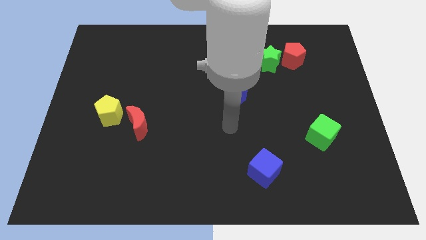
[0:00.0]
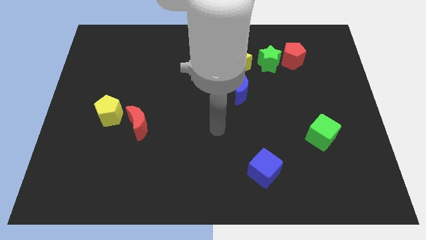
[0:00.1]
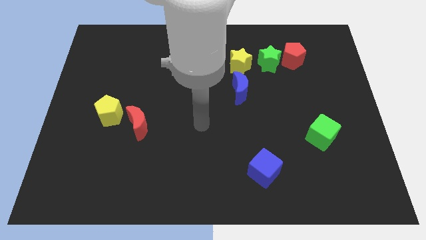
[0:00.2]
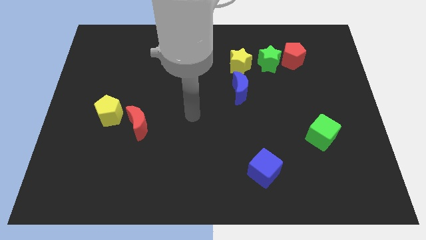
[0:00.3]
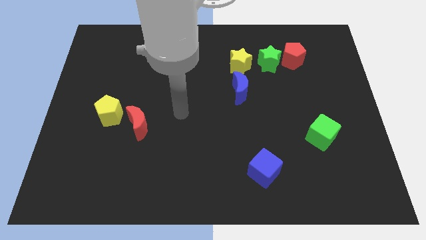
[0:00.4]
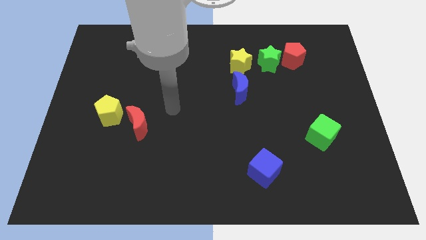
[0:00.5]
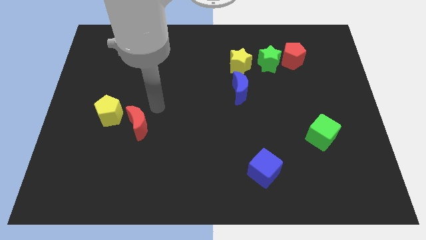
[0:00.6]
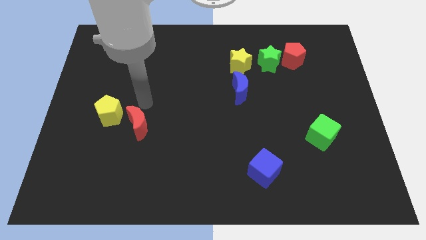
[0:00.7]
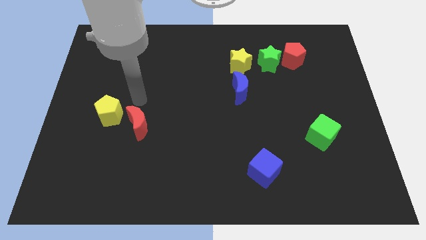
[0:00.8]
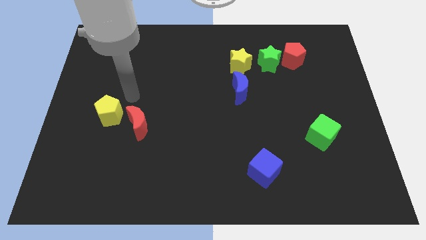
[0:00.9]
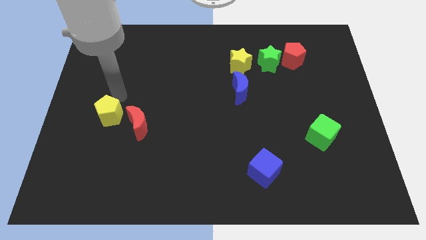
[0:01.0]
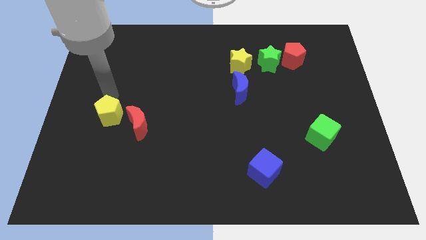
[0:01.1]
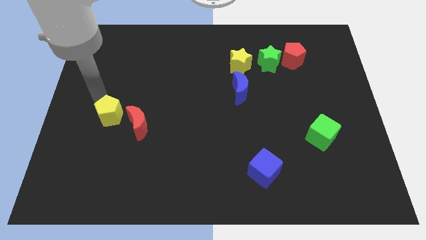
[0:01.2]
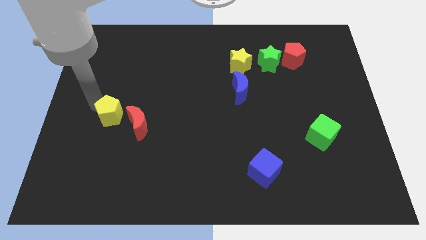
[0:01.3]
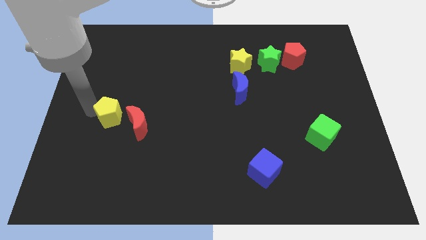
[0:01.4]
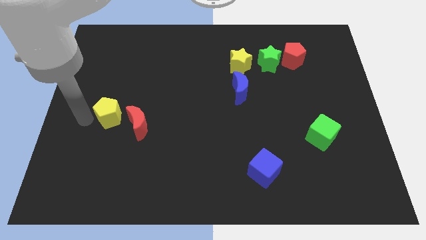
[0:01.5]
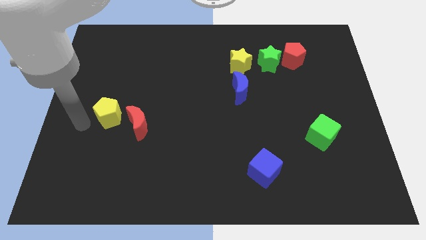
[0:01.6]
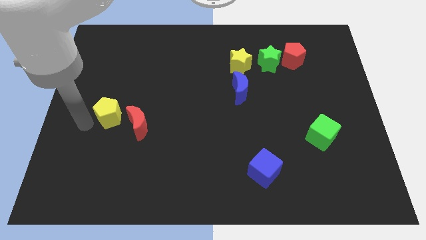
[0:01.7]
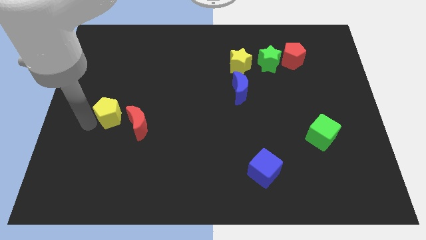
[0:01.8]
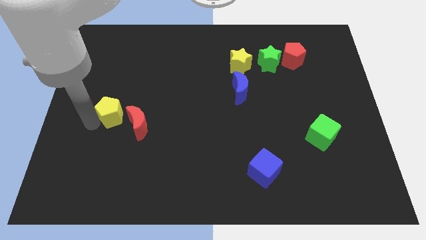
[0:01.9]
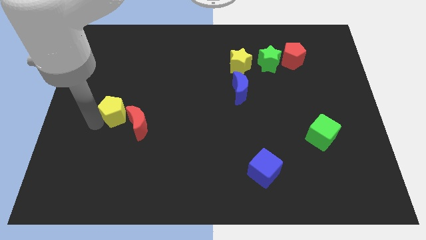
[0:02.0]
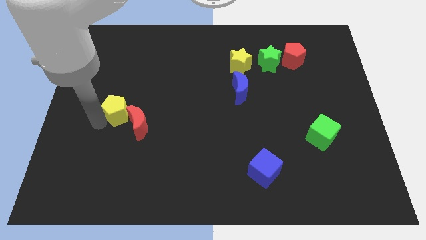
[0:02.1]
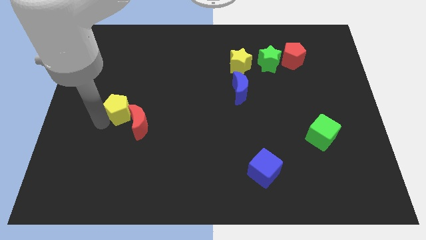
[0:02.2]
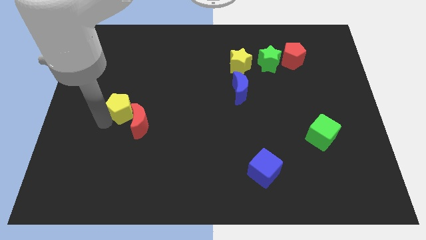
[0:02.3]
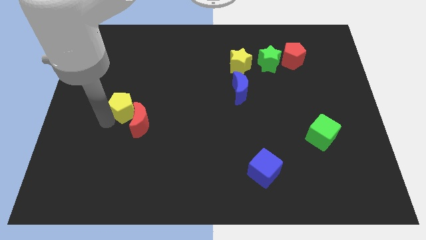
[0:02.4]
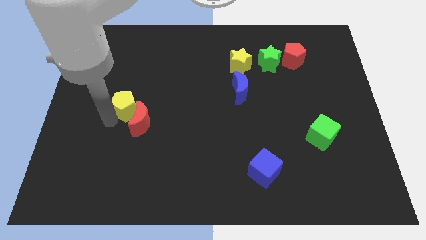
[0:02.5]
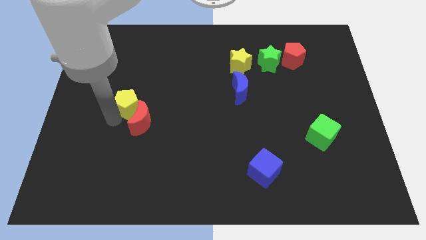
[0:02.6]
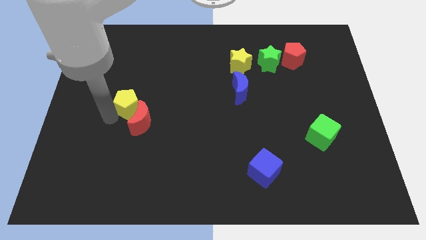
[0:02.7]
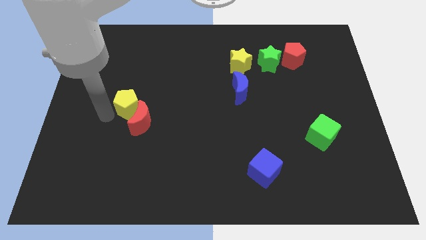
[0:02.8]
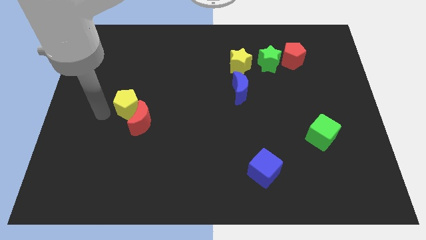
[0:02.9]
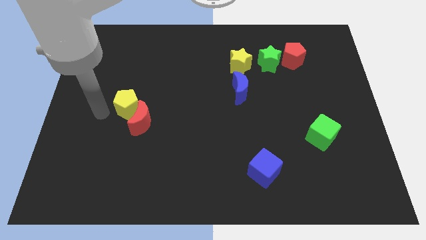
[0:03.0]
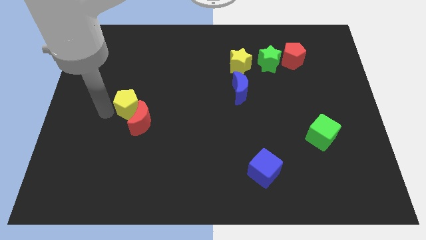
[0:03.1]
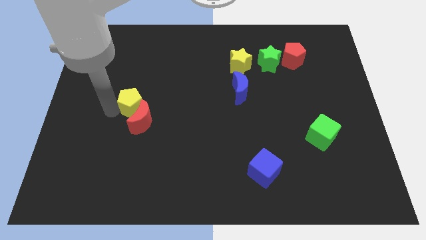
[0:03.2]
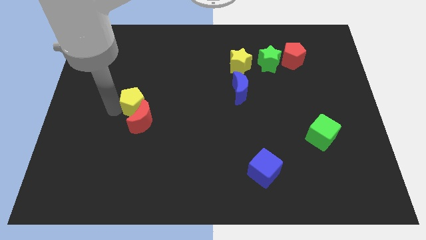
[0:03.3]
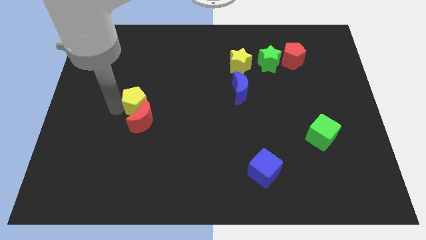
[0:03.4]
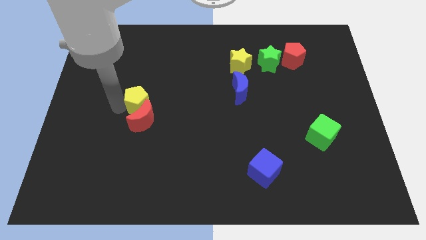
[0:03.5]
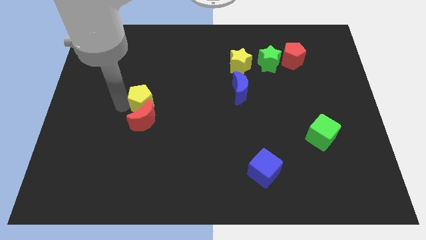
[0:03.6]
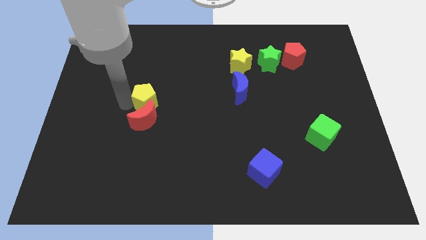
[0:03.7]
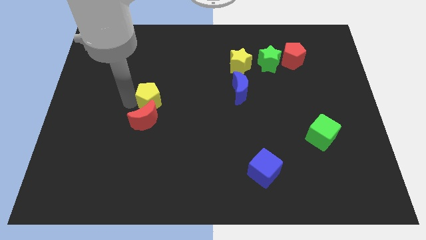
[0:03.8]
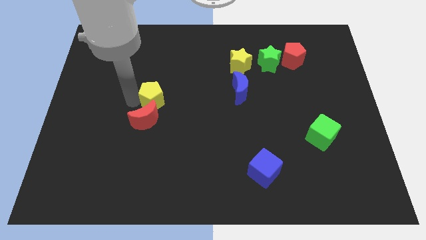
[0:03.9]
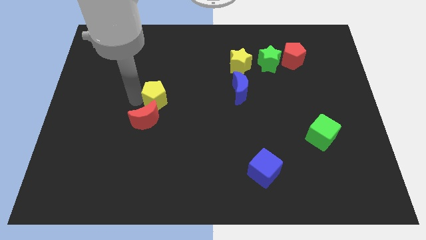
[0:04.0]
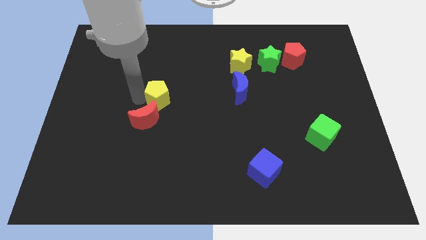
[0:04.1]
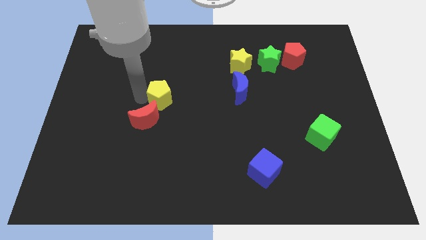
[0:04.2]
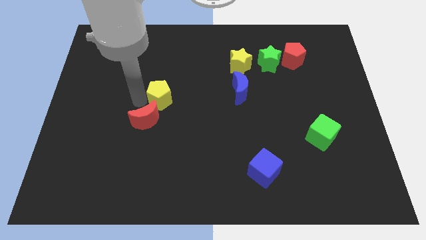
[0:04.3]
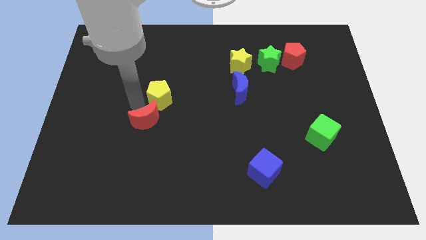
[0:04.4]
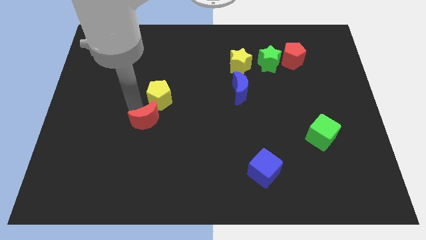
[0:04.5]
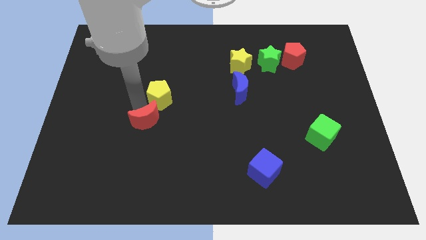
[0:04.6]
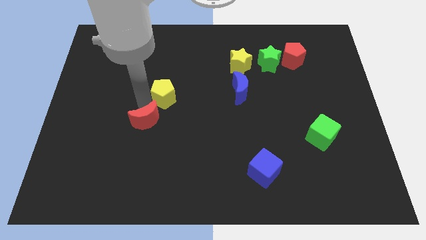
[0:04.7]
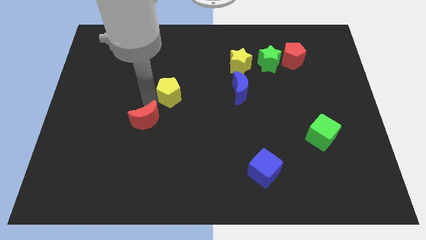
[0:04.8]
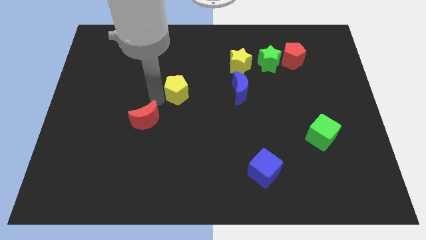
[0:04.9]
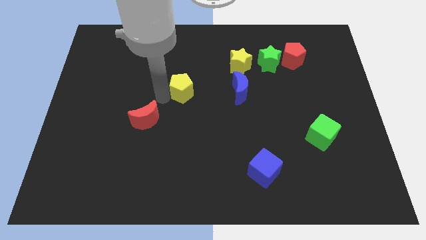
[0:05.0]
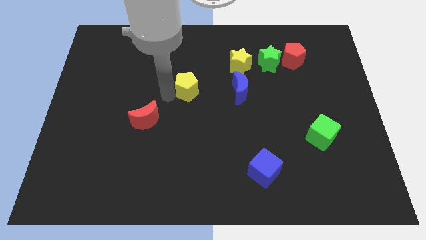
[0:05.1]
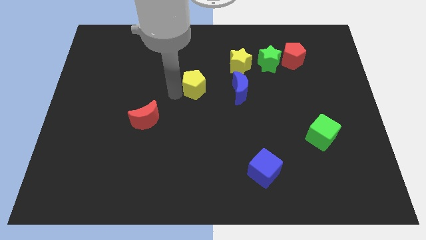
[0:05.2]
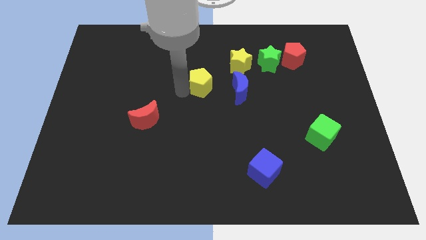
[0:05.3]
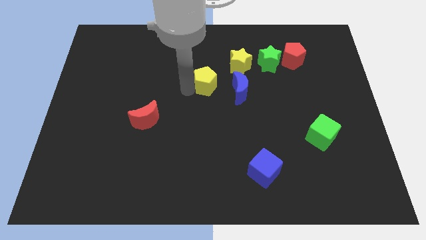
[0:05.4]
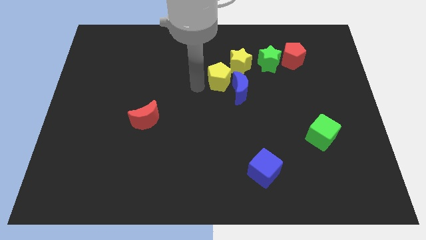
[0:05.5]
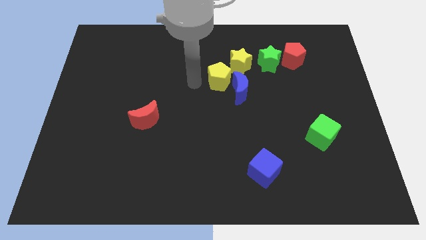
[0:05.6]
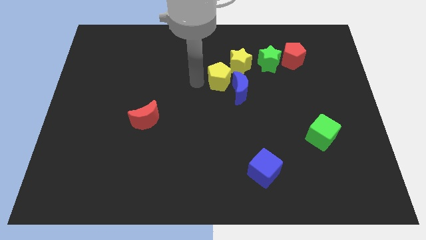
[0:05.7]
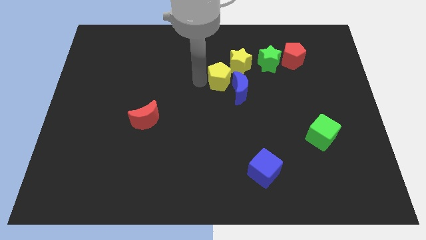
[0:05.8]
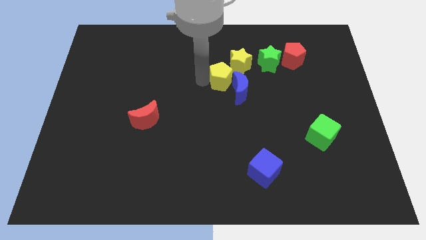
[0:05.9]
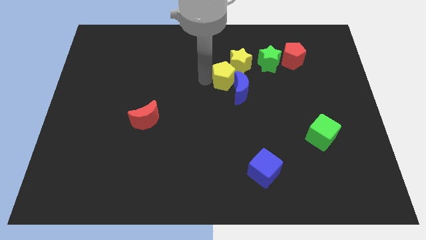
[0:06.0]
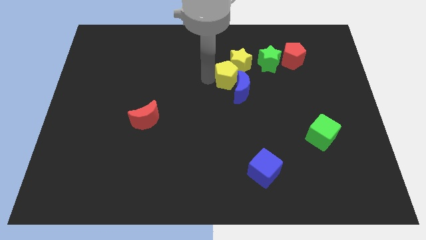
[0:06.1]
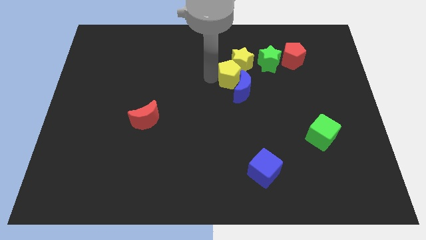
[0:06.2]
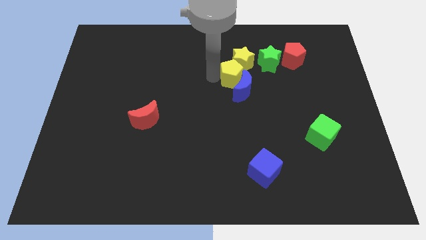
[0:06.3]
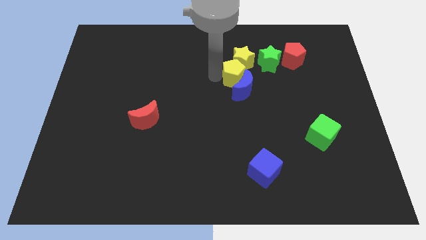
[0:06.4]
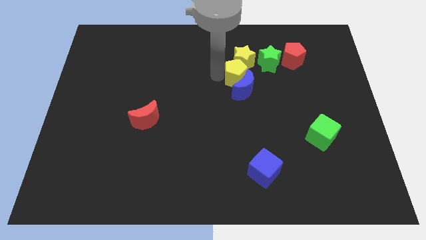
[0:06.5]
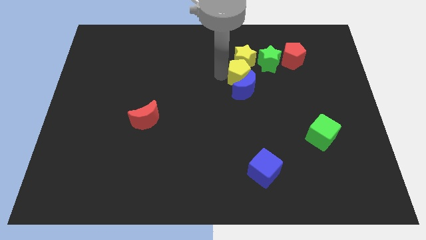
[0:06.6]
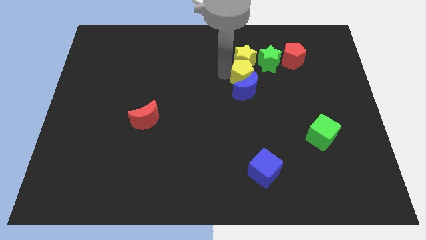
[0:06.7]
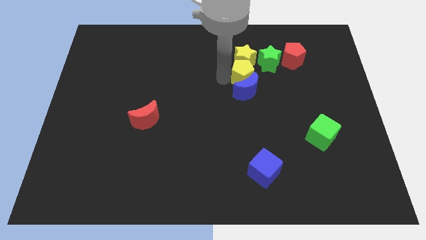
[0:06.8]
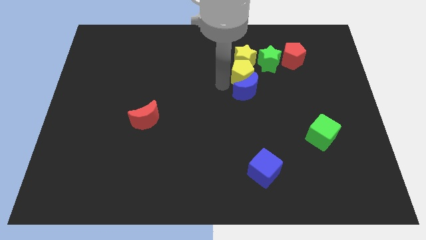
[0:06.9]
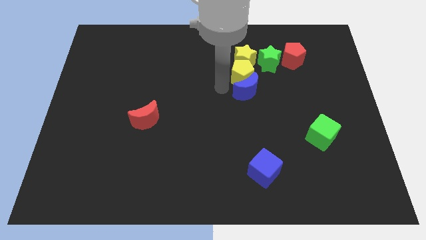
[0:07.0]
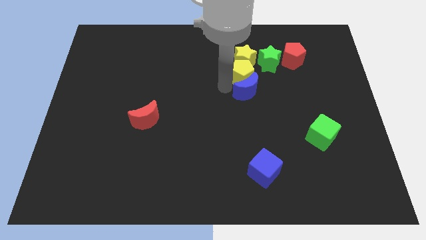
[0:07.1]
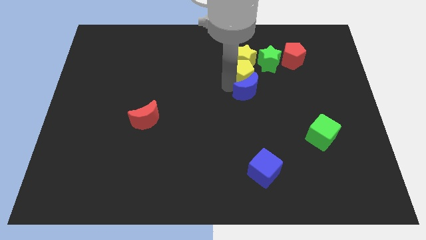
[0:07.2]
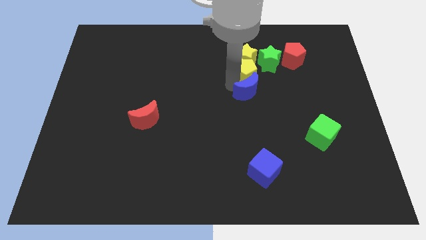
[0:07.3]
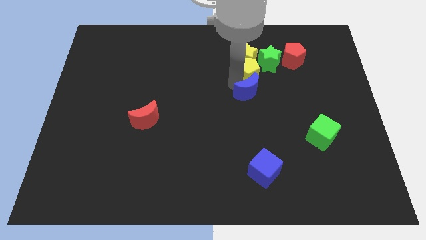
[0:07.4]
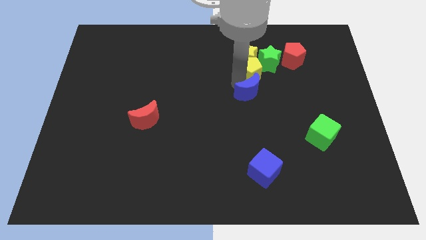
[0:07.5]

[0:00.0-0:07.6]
slide the yellow pentagon close to the green star
